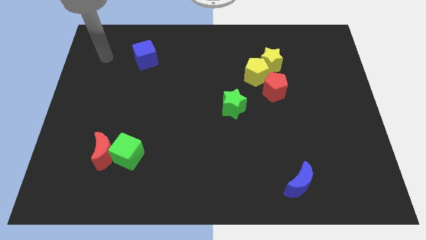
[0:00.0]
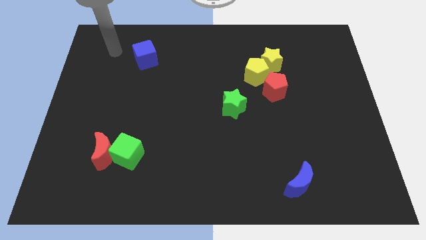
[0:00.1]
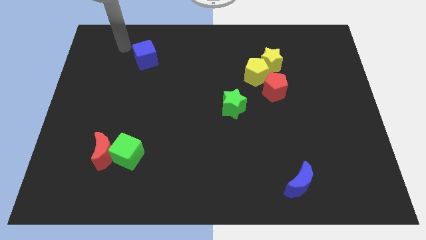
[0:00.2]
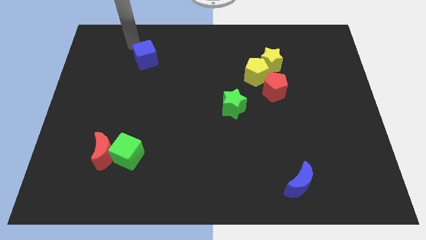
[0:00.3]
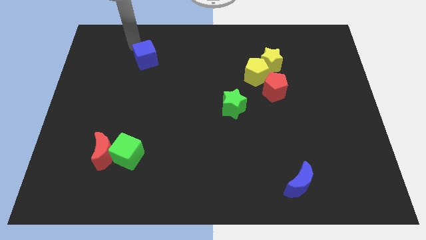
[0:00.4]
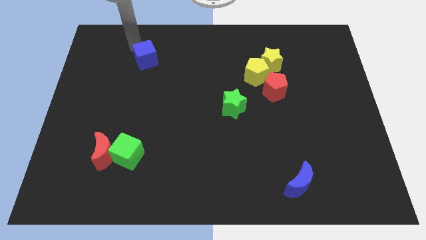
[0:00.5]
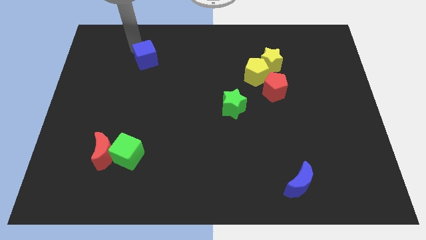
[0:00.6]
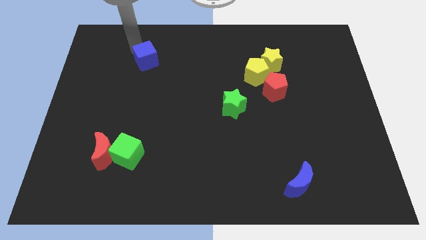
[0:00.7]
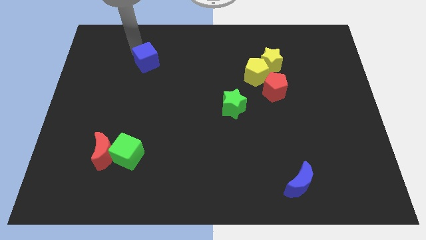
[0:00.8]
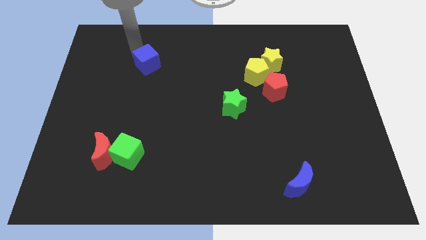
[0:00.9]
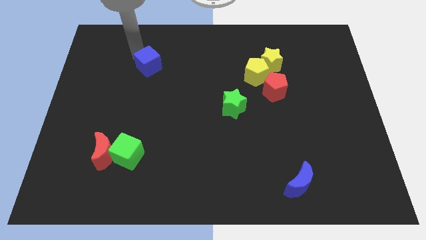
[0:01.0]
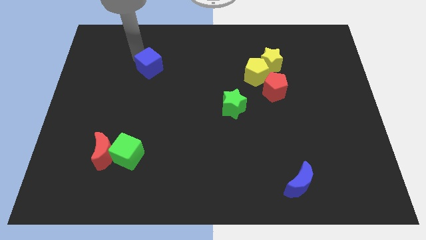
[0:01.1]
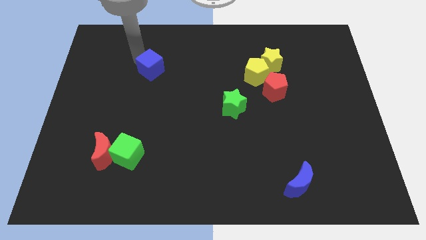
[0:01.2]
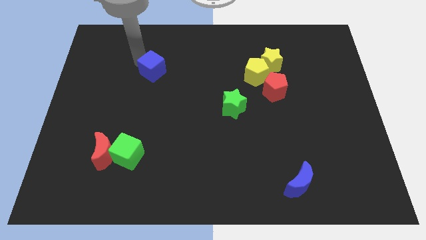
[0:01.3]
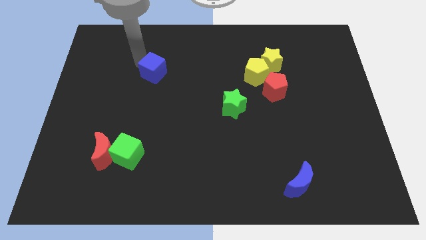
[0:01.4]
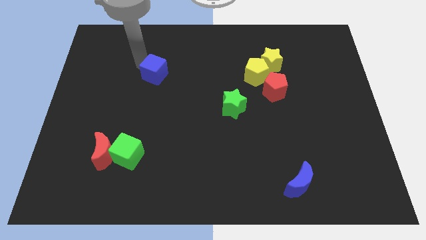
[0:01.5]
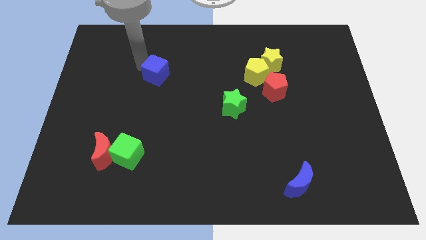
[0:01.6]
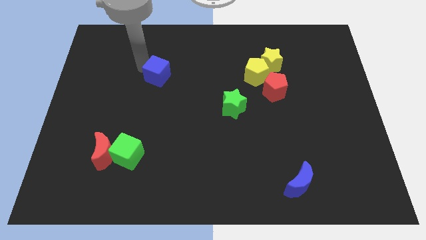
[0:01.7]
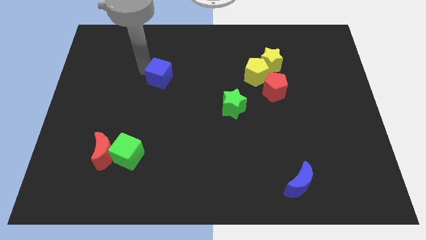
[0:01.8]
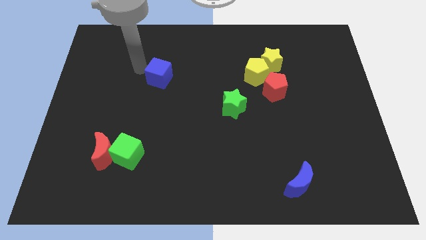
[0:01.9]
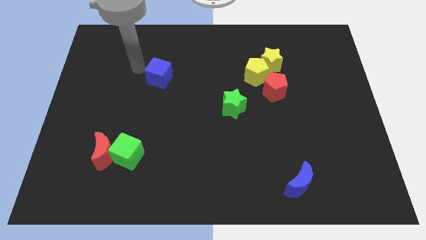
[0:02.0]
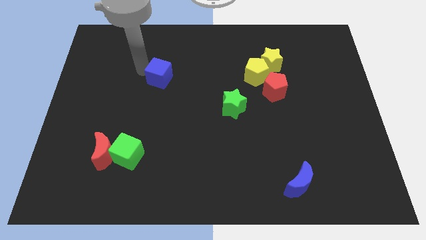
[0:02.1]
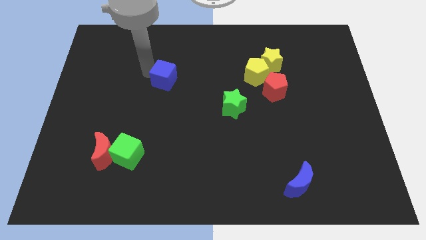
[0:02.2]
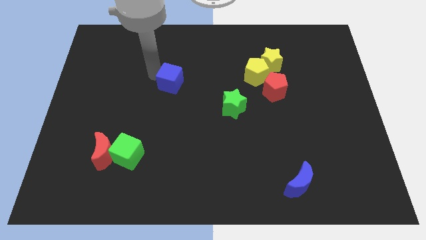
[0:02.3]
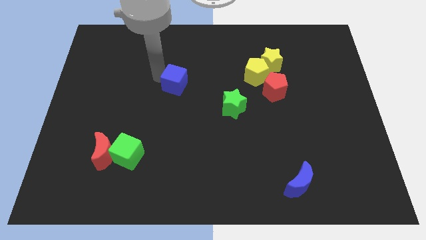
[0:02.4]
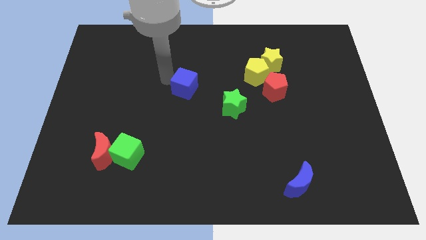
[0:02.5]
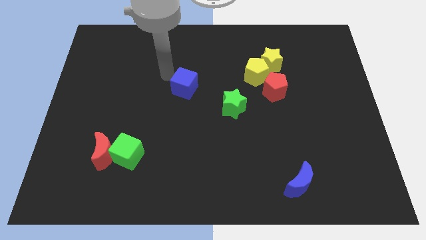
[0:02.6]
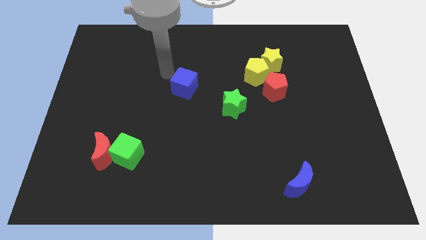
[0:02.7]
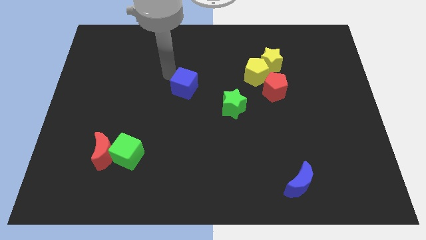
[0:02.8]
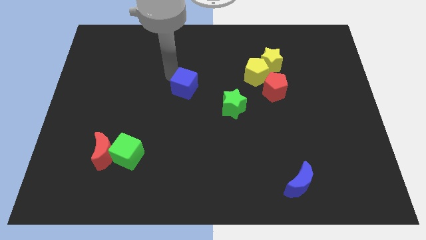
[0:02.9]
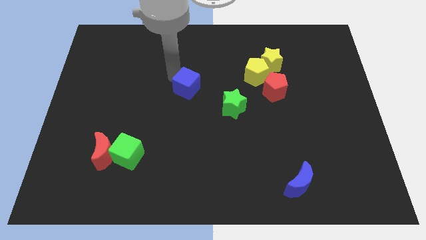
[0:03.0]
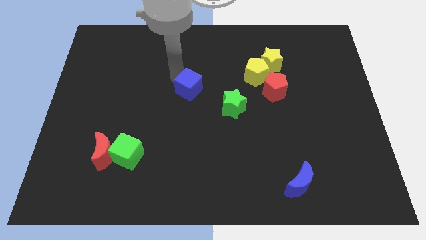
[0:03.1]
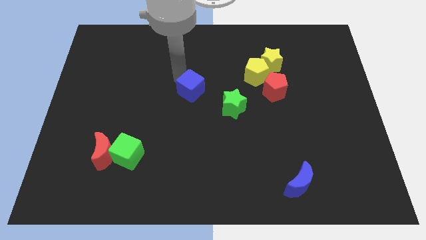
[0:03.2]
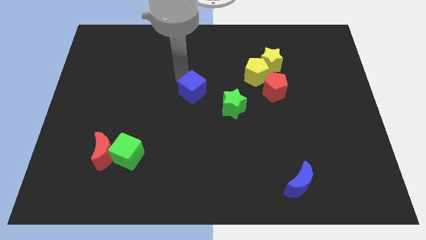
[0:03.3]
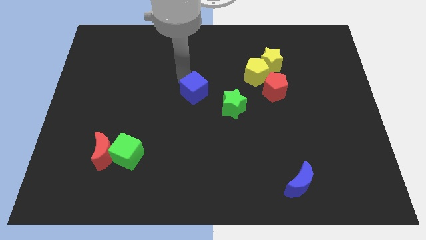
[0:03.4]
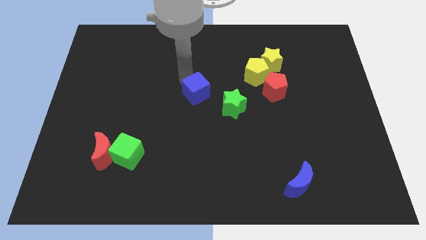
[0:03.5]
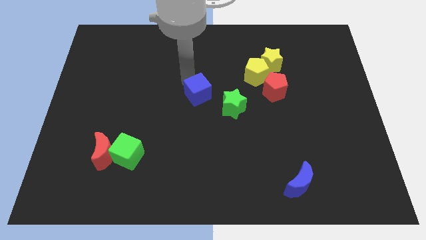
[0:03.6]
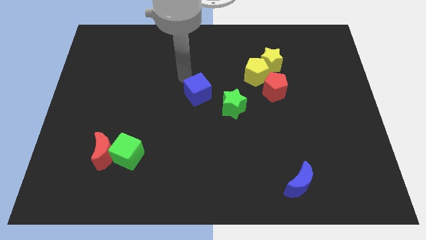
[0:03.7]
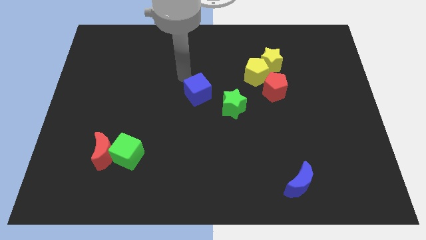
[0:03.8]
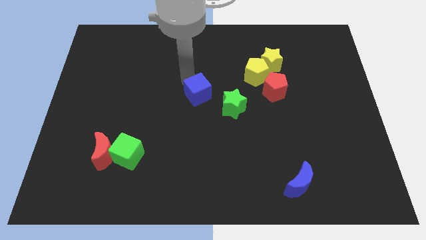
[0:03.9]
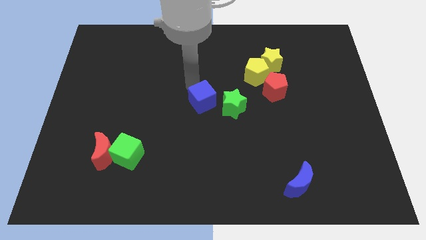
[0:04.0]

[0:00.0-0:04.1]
move the blue cube downwards and right

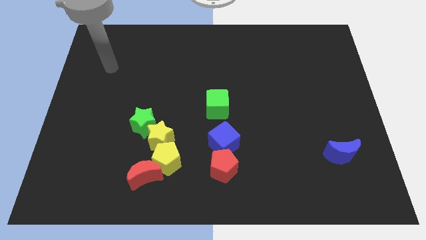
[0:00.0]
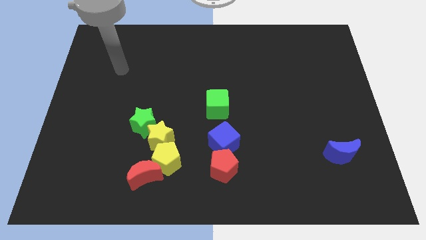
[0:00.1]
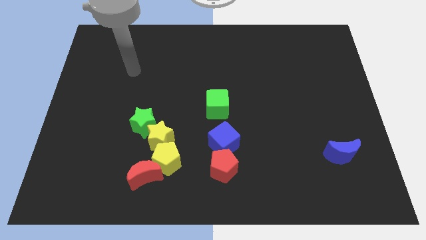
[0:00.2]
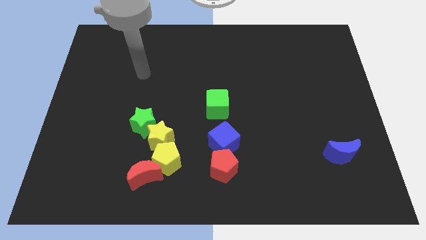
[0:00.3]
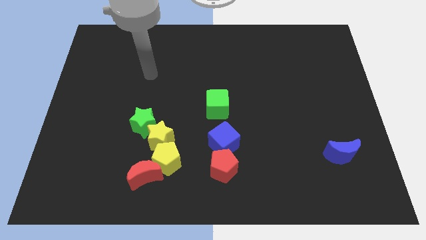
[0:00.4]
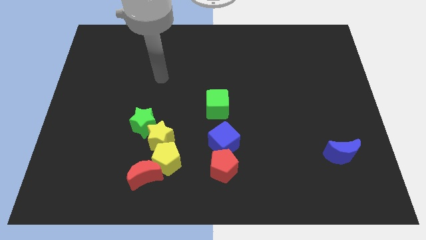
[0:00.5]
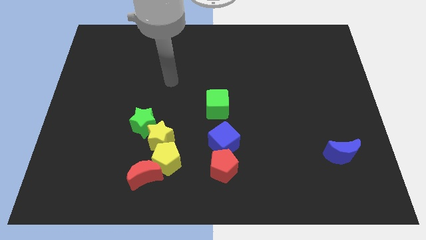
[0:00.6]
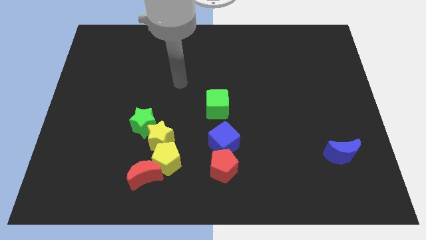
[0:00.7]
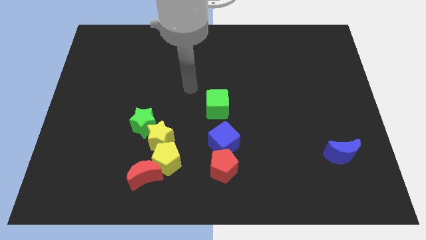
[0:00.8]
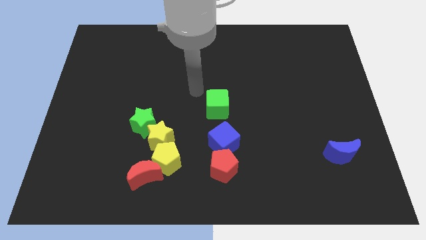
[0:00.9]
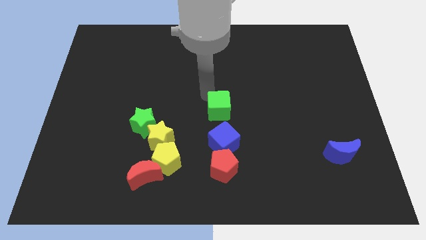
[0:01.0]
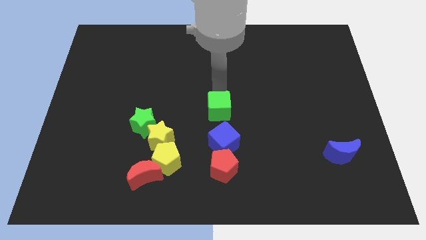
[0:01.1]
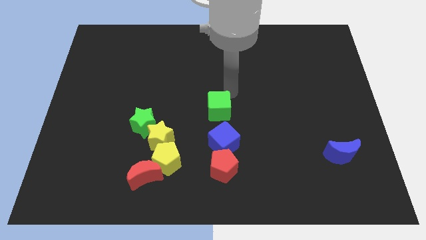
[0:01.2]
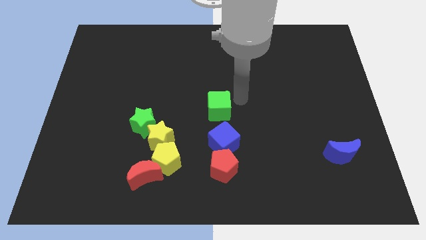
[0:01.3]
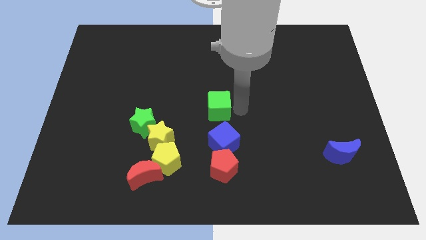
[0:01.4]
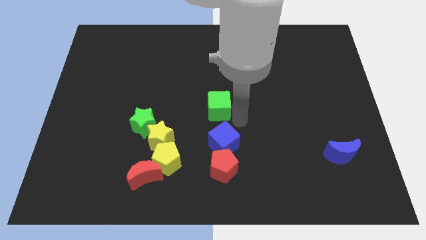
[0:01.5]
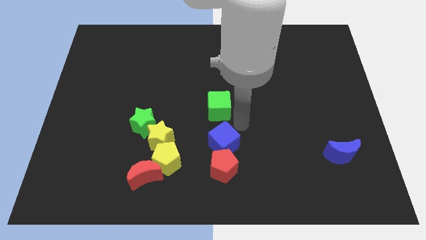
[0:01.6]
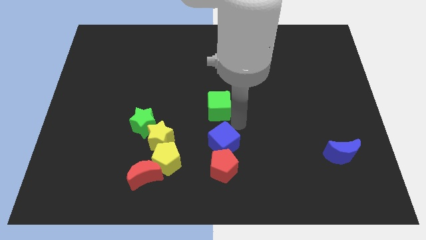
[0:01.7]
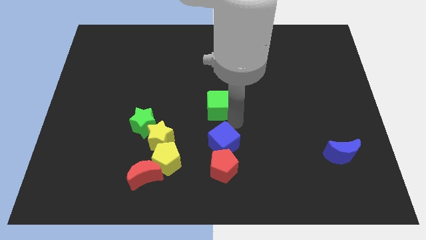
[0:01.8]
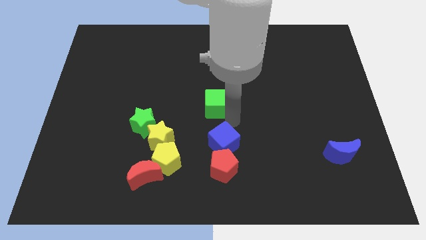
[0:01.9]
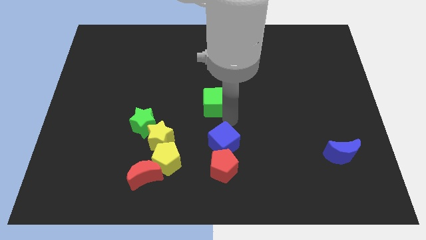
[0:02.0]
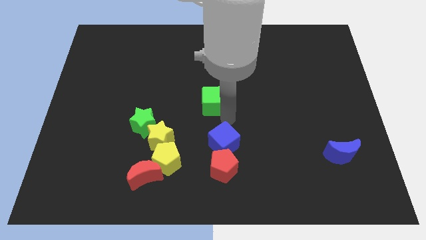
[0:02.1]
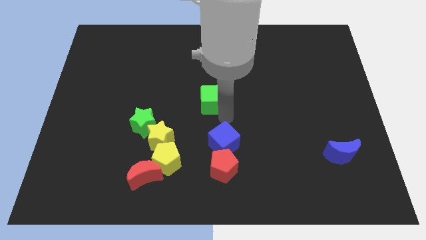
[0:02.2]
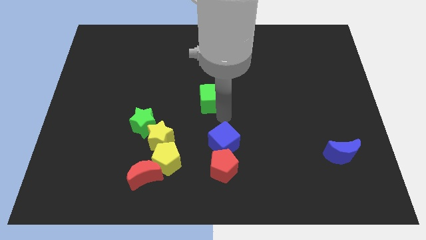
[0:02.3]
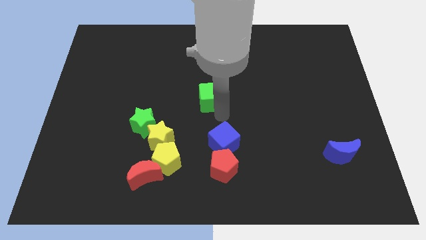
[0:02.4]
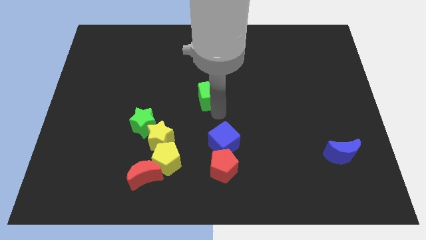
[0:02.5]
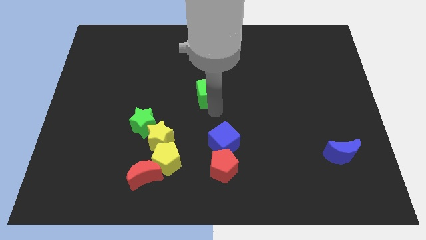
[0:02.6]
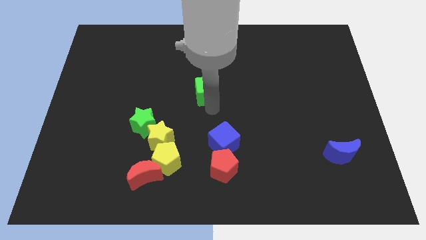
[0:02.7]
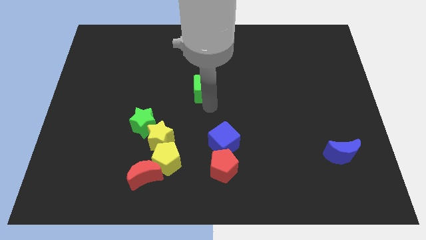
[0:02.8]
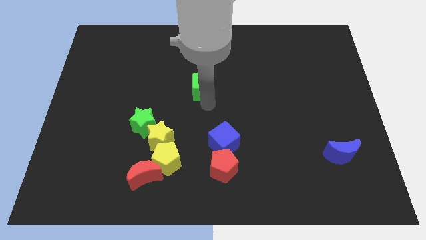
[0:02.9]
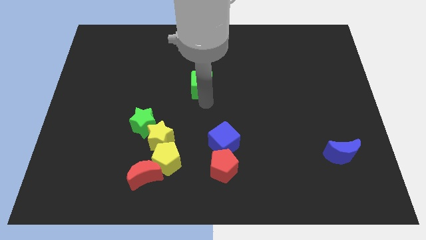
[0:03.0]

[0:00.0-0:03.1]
push the green cube diagonally upwards and to the left a little

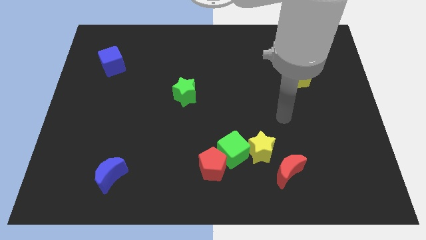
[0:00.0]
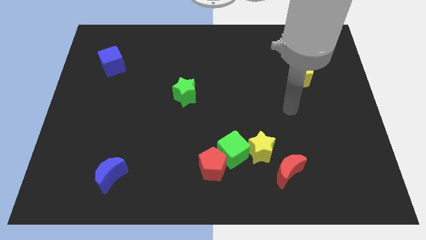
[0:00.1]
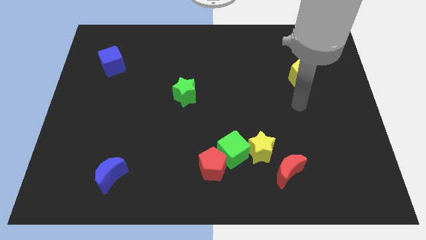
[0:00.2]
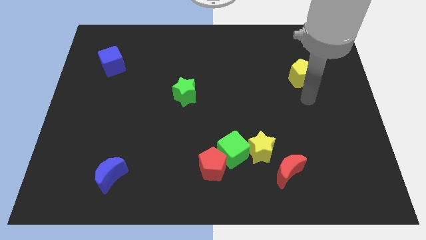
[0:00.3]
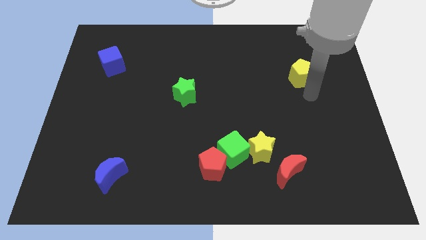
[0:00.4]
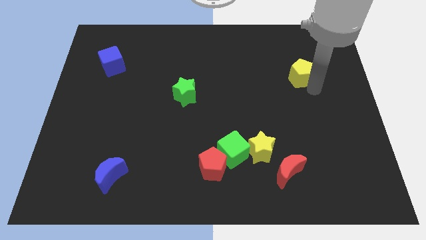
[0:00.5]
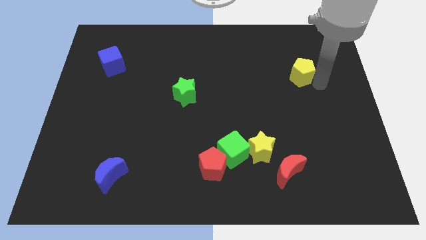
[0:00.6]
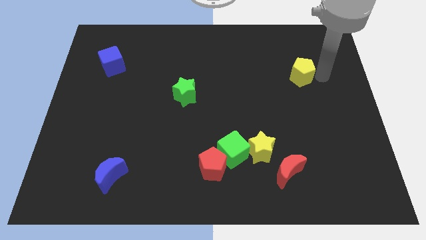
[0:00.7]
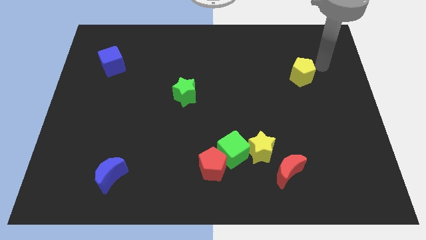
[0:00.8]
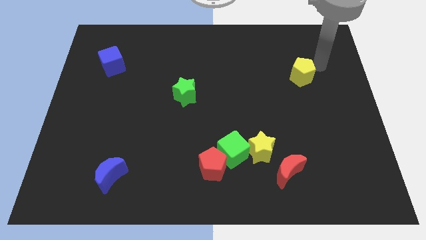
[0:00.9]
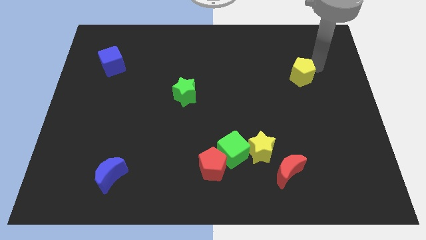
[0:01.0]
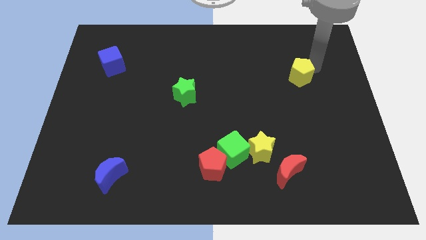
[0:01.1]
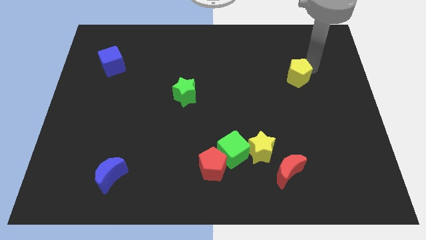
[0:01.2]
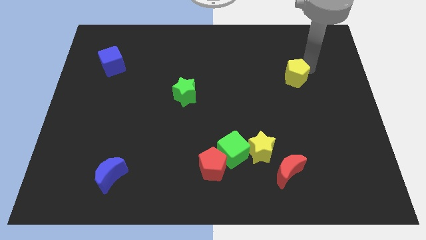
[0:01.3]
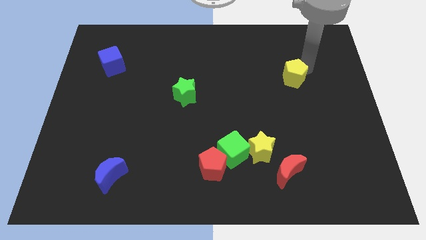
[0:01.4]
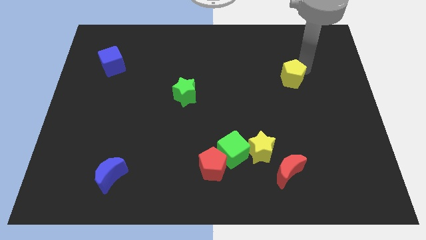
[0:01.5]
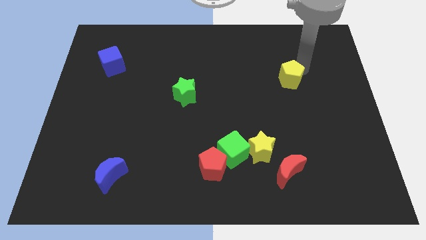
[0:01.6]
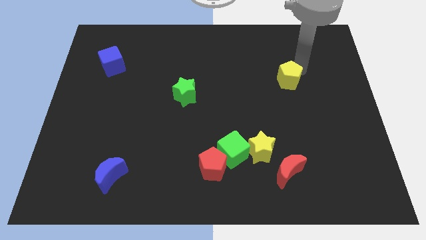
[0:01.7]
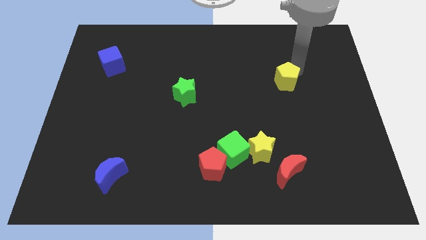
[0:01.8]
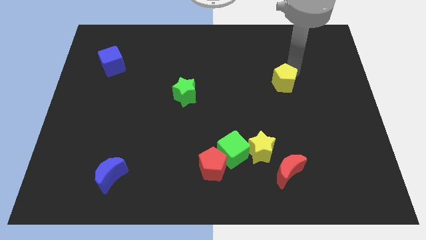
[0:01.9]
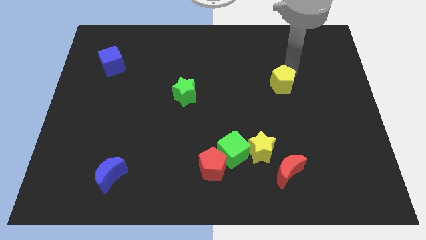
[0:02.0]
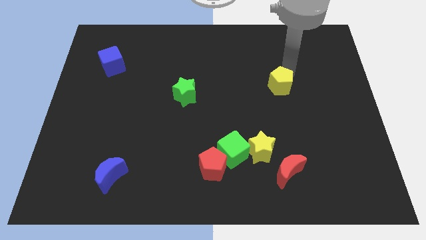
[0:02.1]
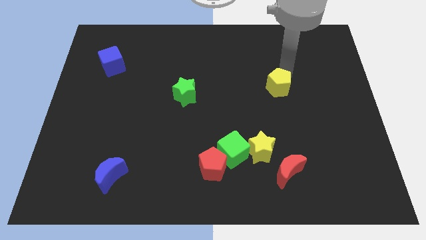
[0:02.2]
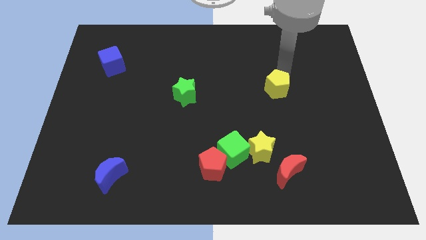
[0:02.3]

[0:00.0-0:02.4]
push the yellow pentagon a little bit diagonally down and left
